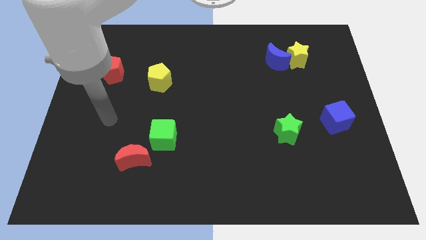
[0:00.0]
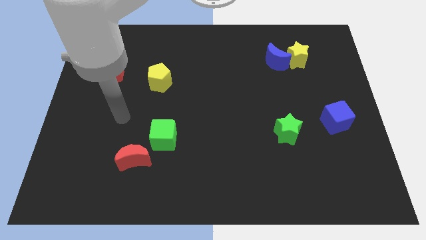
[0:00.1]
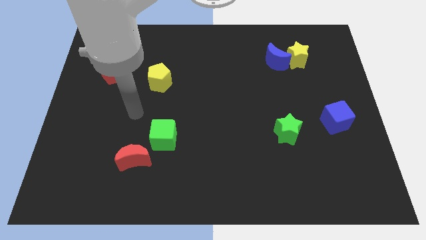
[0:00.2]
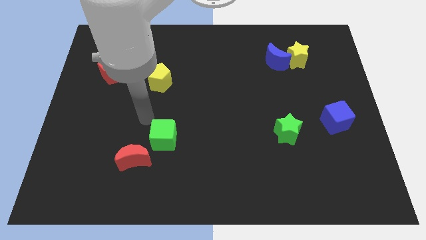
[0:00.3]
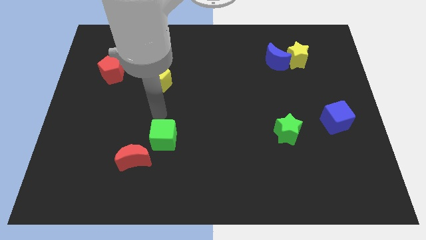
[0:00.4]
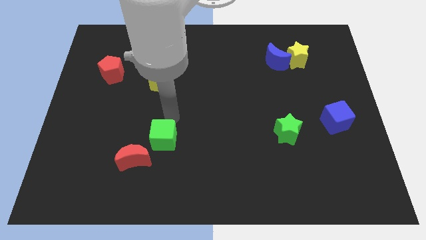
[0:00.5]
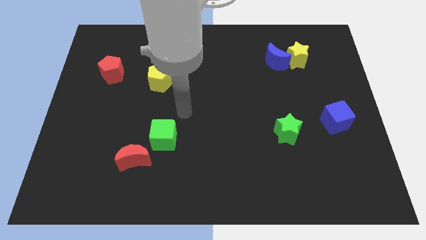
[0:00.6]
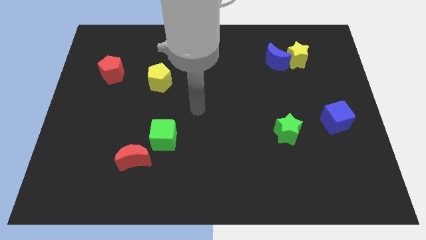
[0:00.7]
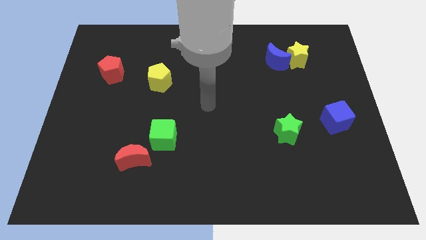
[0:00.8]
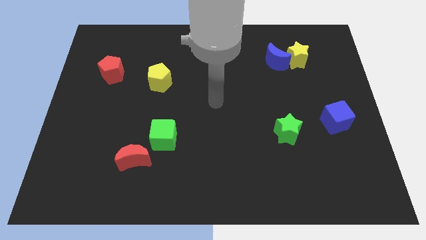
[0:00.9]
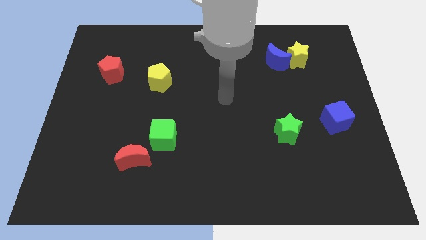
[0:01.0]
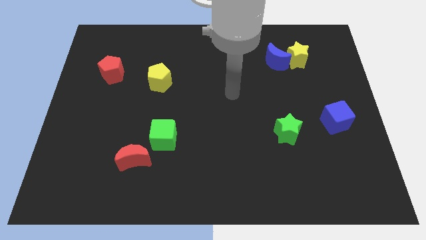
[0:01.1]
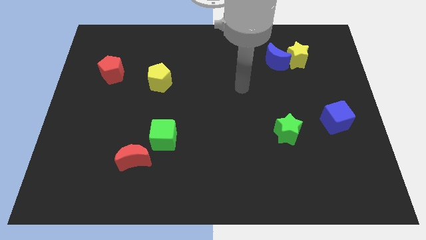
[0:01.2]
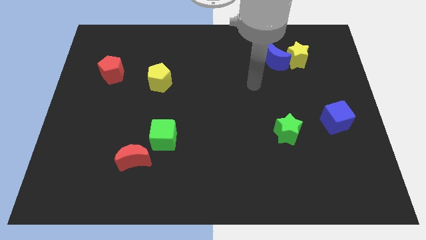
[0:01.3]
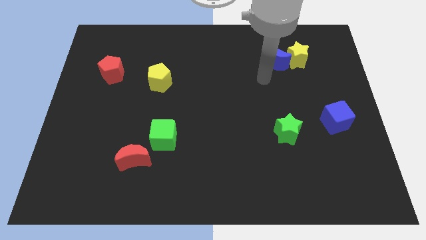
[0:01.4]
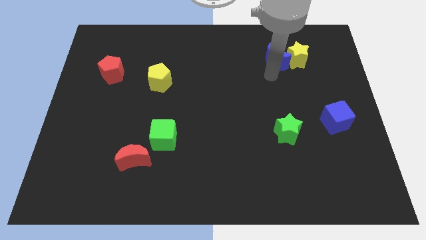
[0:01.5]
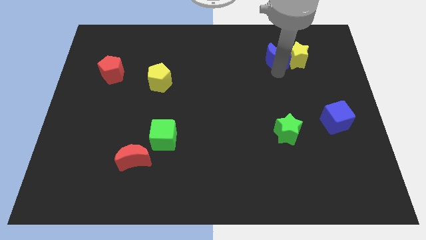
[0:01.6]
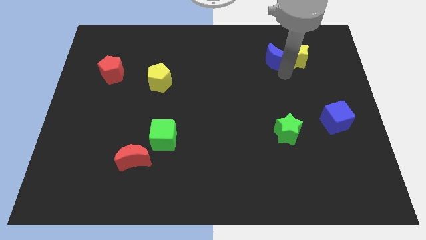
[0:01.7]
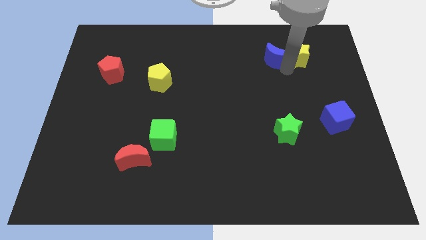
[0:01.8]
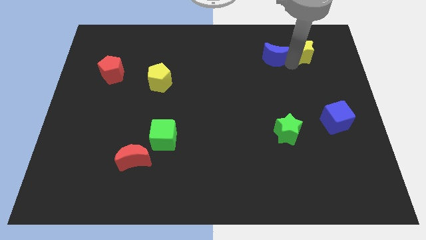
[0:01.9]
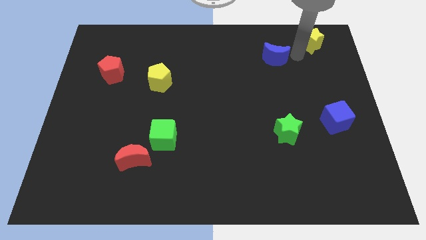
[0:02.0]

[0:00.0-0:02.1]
pull the blue moon apart from the yellow star

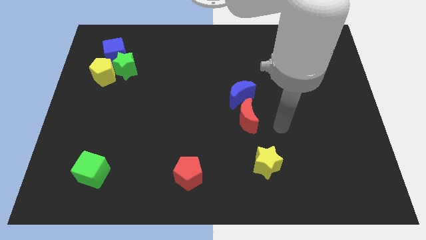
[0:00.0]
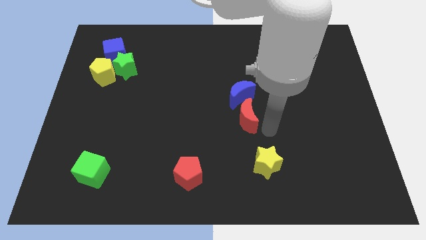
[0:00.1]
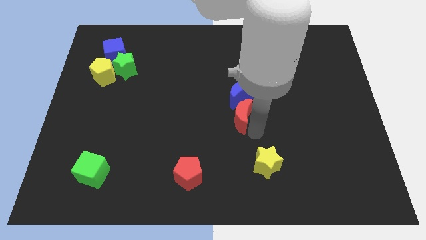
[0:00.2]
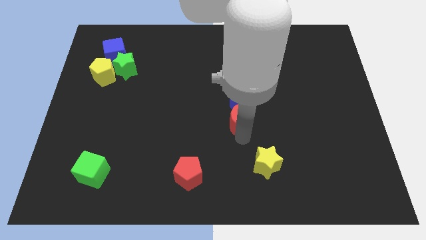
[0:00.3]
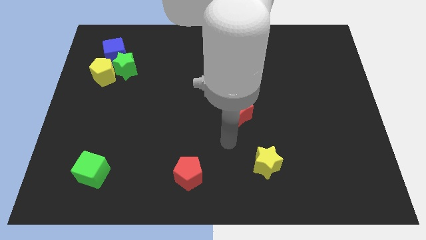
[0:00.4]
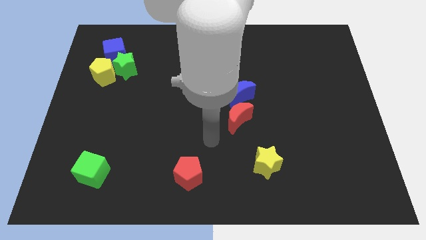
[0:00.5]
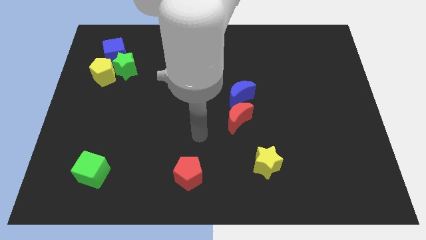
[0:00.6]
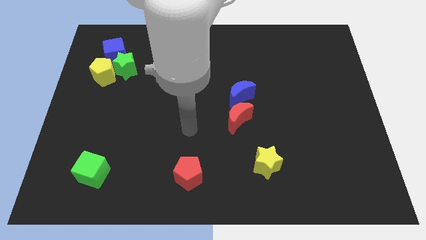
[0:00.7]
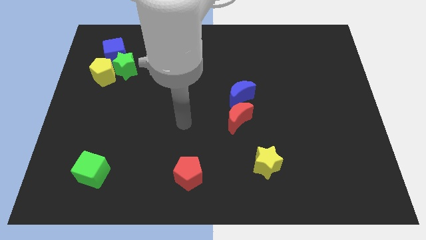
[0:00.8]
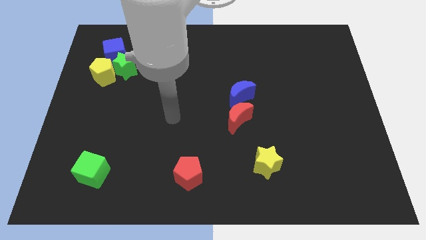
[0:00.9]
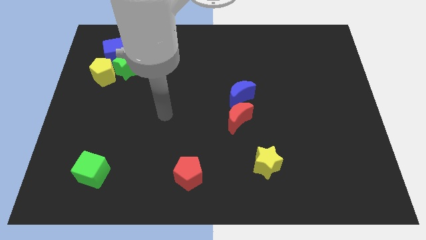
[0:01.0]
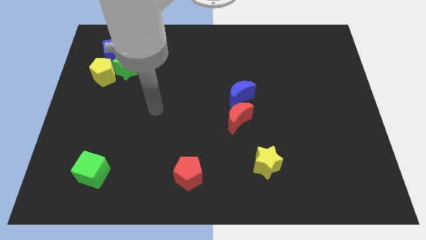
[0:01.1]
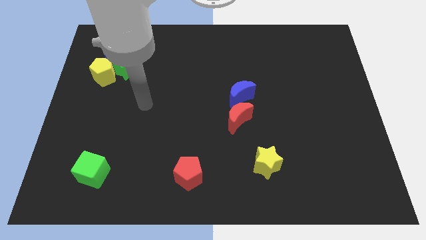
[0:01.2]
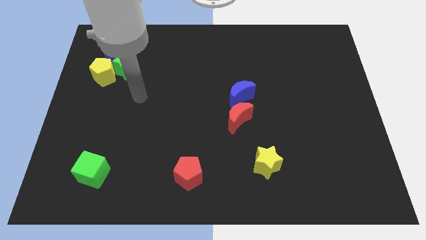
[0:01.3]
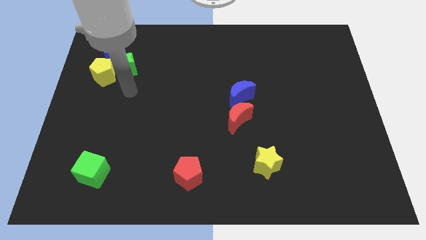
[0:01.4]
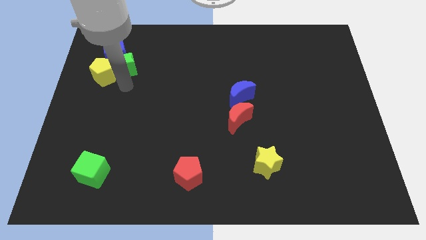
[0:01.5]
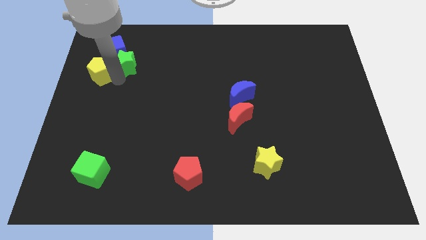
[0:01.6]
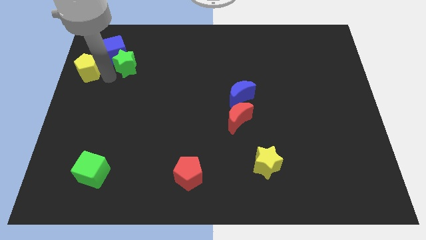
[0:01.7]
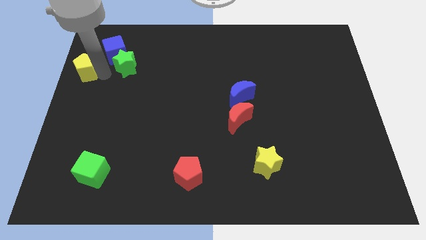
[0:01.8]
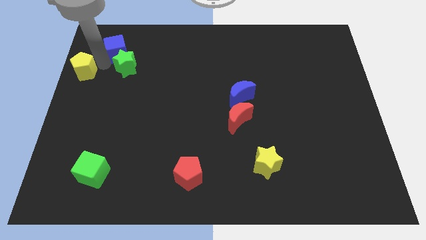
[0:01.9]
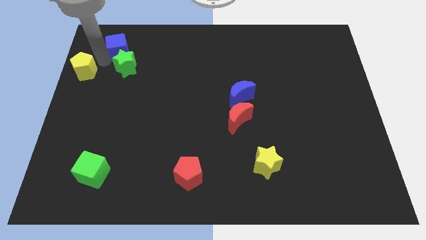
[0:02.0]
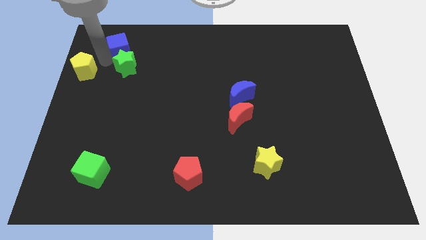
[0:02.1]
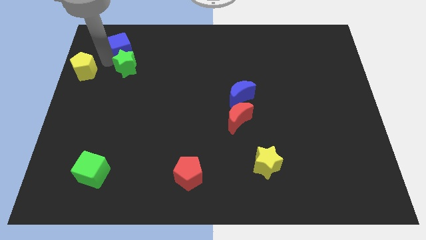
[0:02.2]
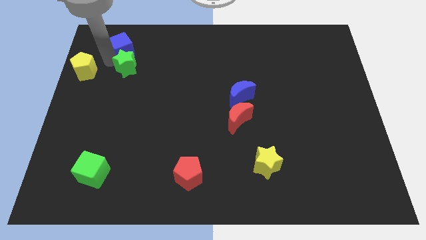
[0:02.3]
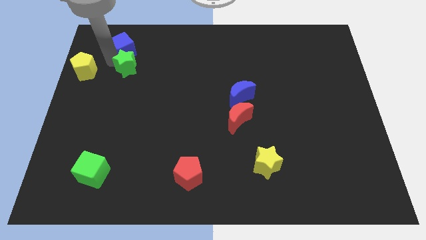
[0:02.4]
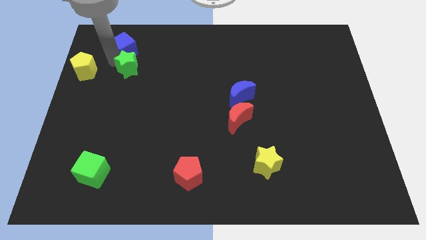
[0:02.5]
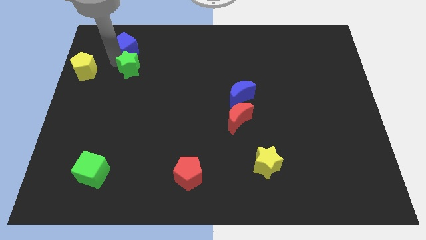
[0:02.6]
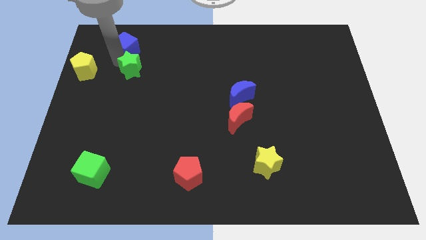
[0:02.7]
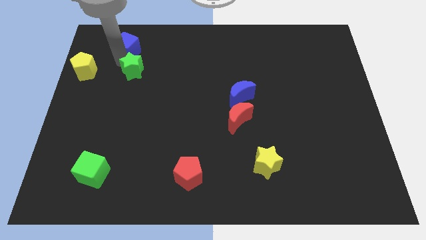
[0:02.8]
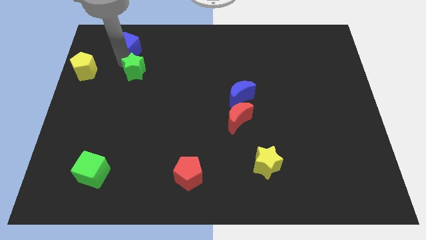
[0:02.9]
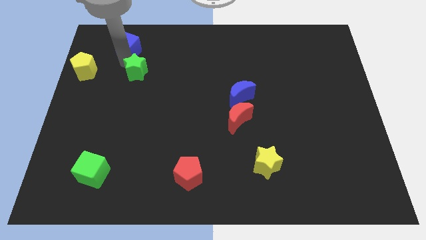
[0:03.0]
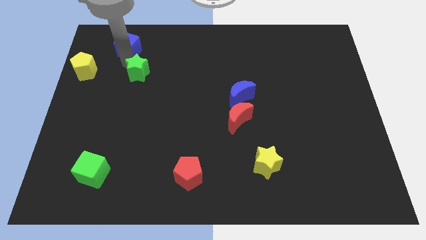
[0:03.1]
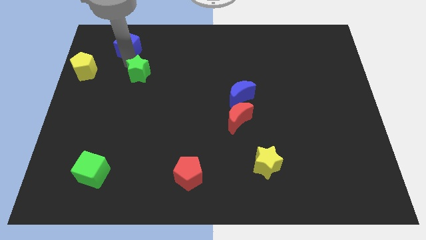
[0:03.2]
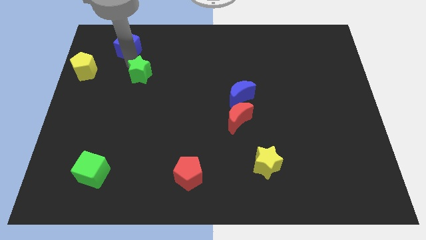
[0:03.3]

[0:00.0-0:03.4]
move the green star away from the yellow pentagon and blue cube

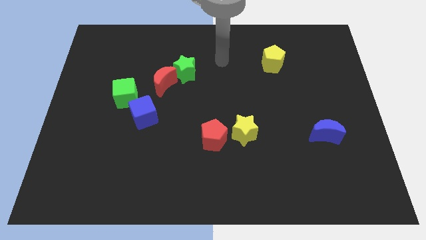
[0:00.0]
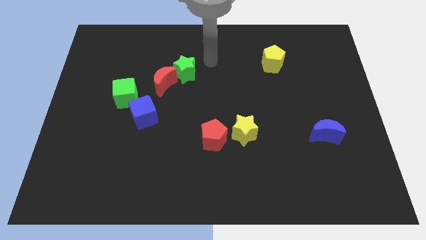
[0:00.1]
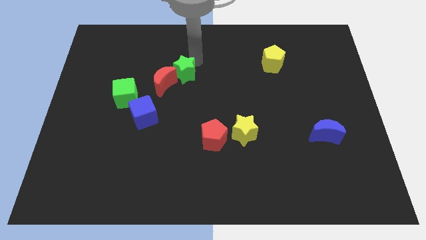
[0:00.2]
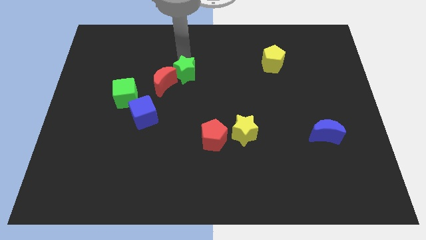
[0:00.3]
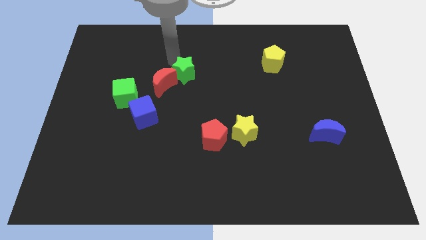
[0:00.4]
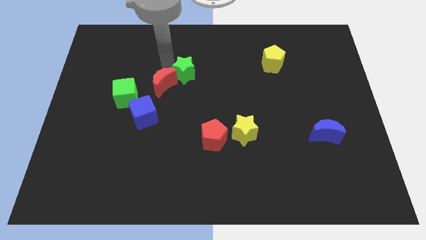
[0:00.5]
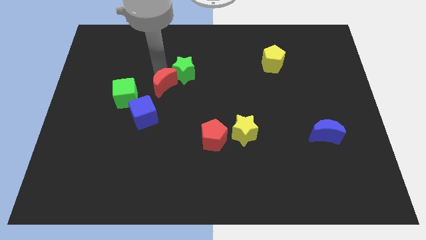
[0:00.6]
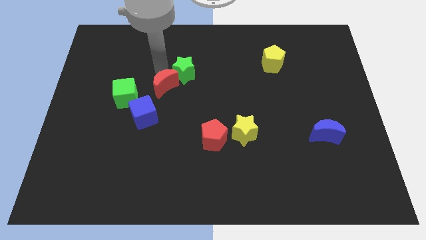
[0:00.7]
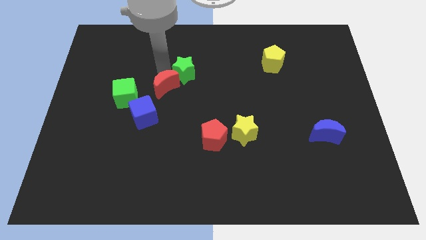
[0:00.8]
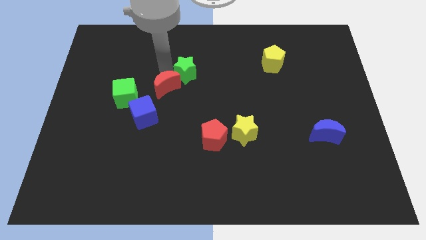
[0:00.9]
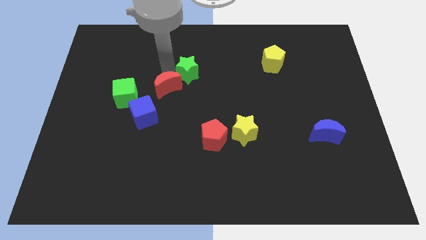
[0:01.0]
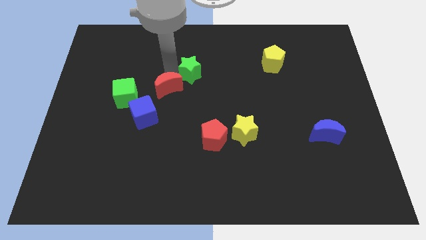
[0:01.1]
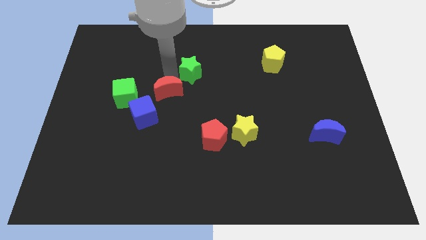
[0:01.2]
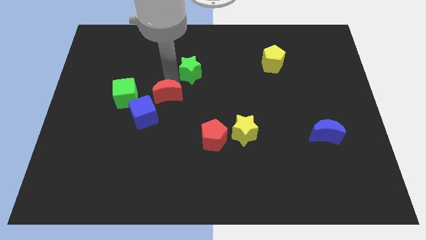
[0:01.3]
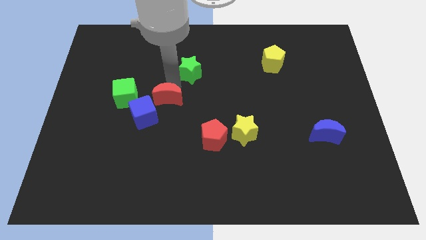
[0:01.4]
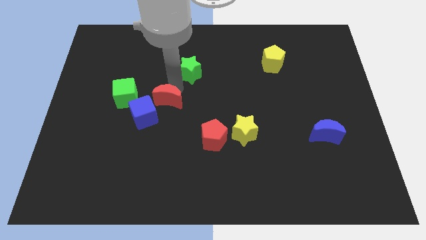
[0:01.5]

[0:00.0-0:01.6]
move the green star away from the red moon

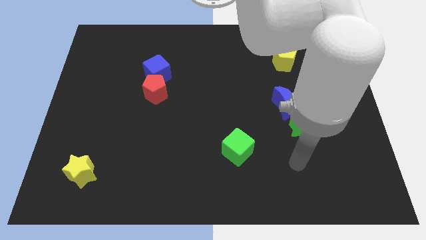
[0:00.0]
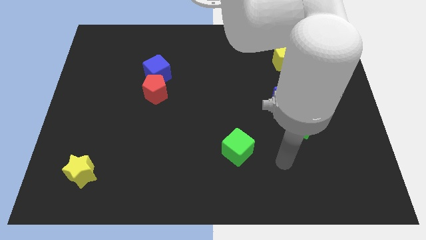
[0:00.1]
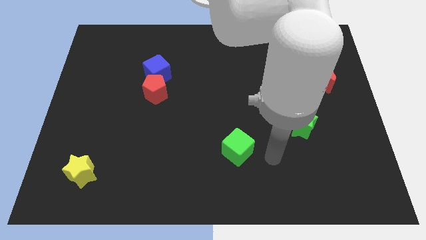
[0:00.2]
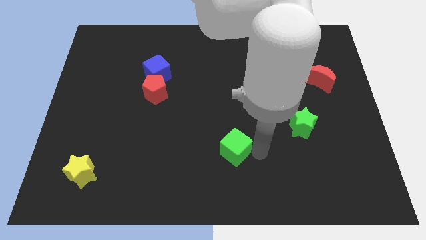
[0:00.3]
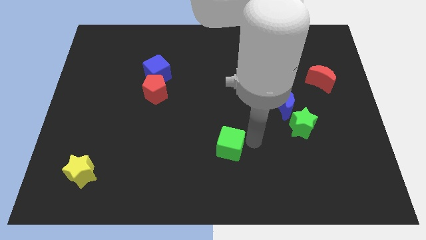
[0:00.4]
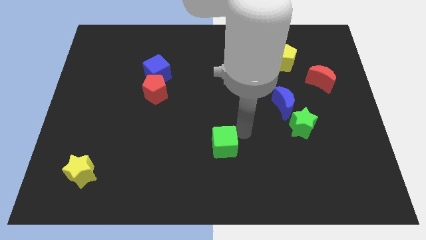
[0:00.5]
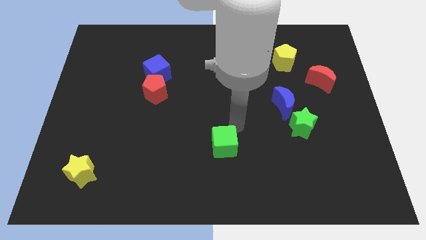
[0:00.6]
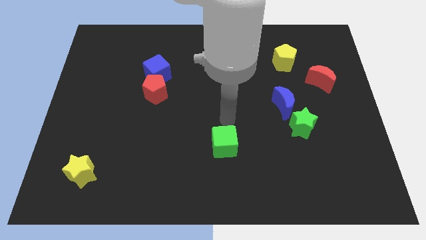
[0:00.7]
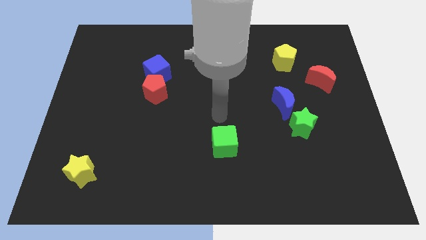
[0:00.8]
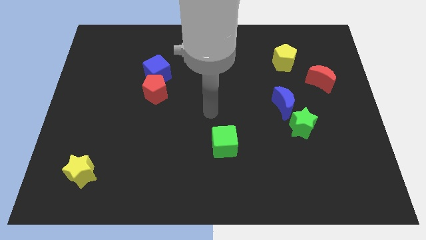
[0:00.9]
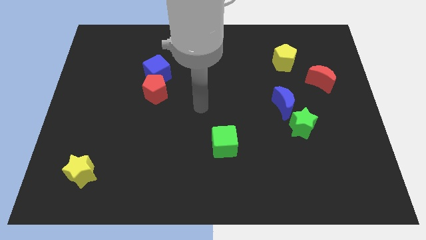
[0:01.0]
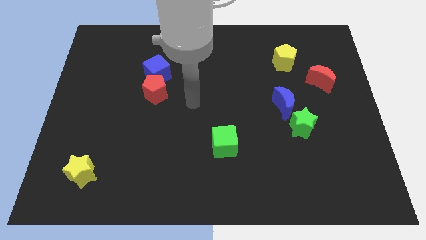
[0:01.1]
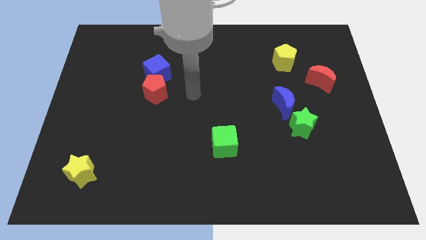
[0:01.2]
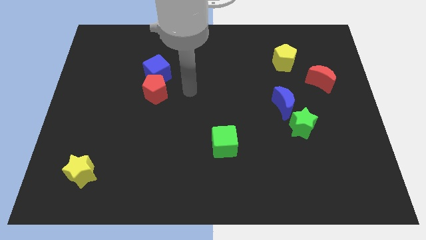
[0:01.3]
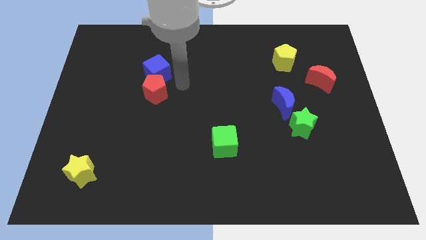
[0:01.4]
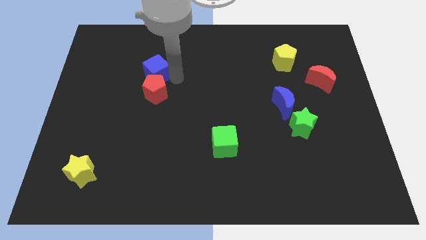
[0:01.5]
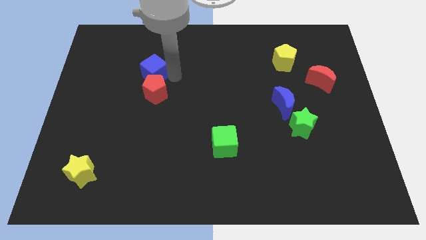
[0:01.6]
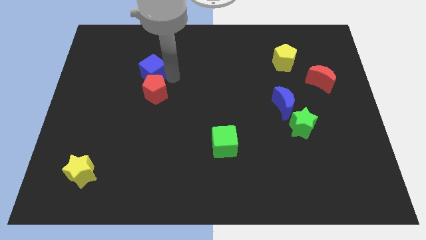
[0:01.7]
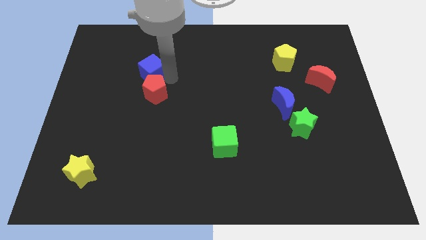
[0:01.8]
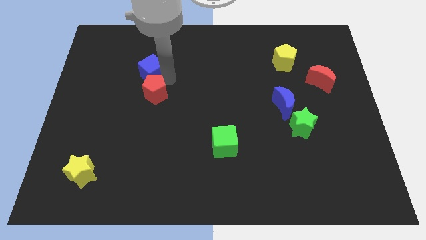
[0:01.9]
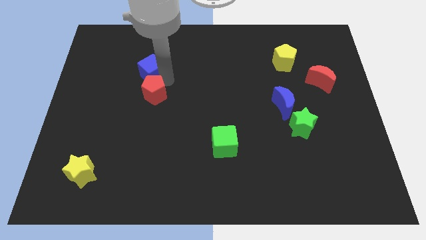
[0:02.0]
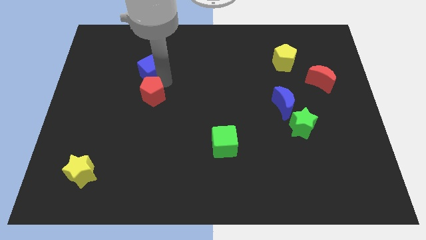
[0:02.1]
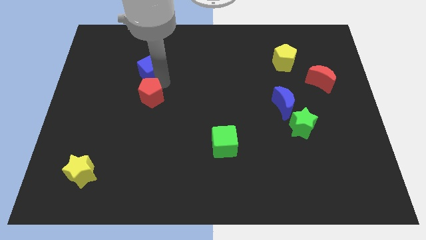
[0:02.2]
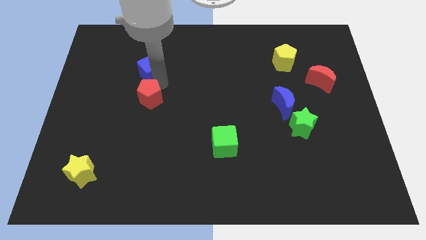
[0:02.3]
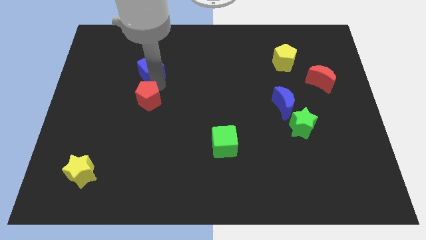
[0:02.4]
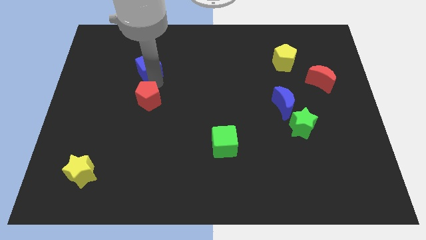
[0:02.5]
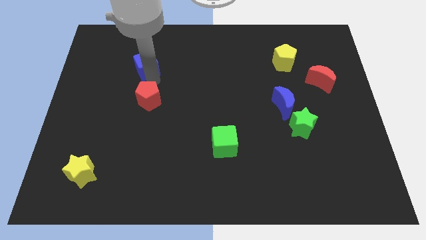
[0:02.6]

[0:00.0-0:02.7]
move the red pentagon away from the blue cube
